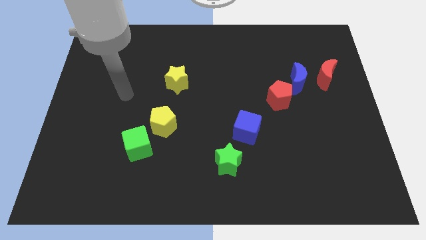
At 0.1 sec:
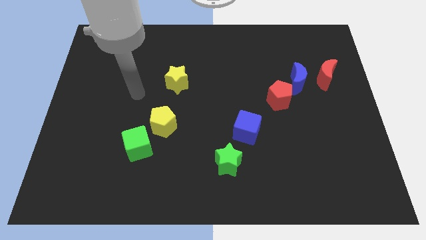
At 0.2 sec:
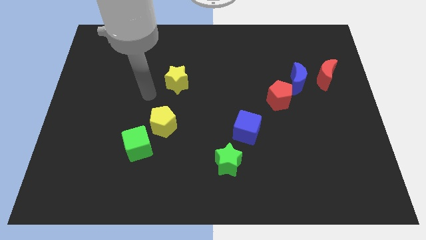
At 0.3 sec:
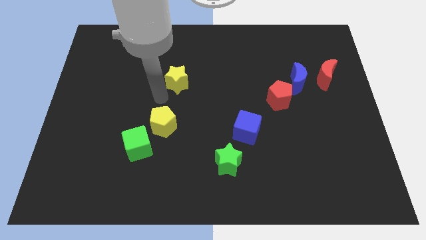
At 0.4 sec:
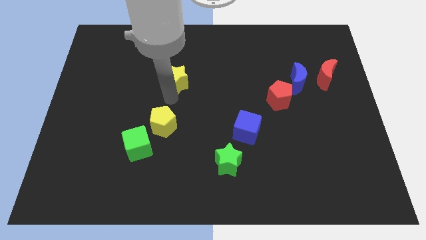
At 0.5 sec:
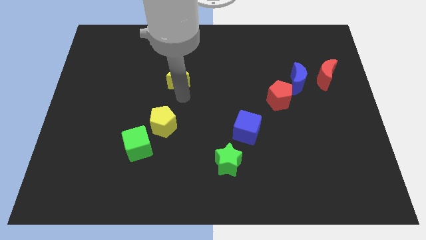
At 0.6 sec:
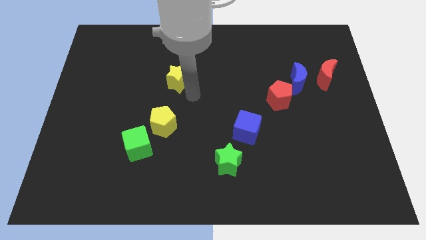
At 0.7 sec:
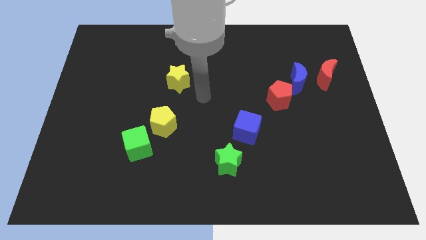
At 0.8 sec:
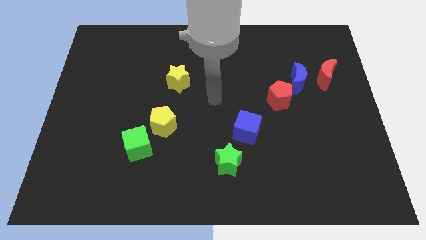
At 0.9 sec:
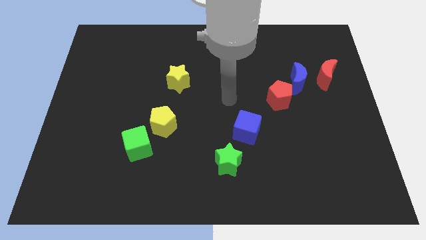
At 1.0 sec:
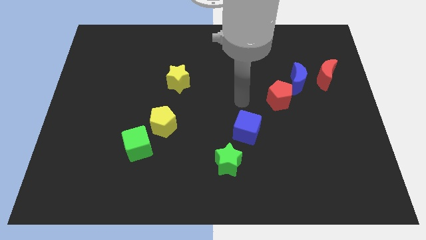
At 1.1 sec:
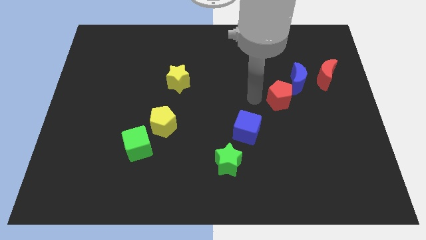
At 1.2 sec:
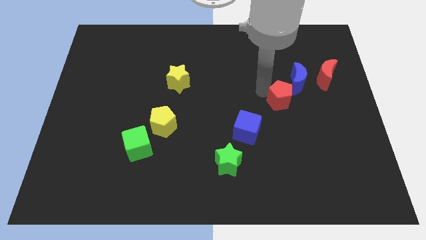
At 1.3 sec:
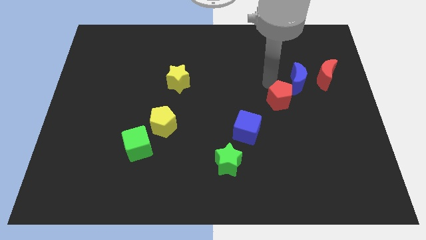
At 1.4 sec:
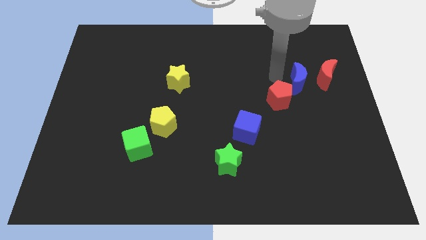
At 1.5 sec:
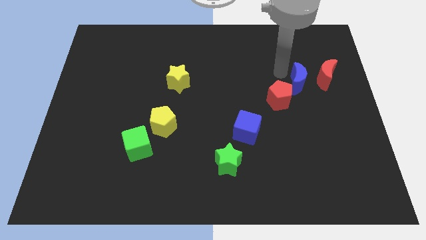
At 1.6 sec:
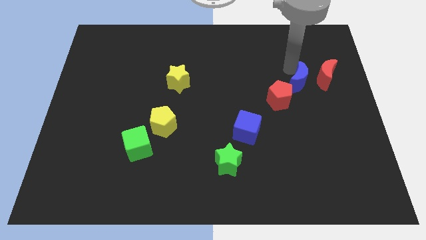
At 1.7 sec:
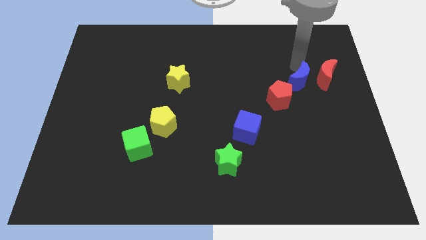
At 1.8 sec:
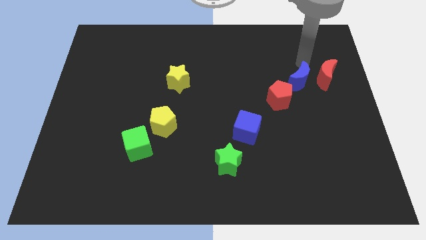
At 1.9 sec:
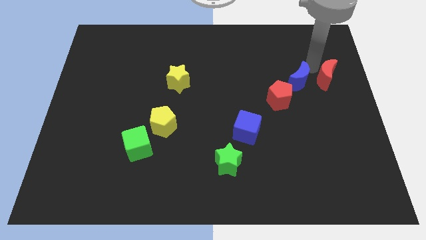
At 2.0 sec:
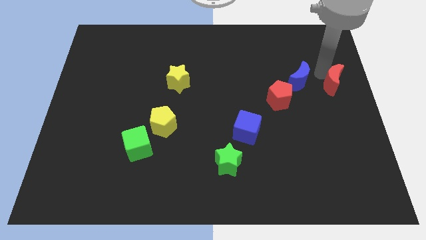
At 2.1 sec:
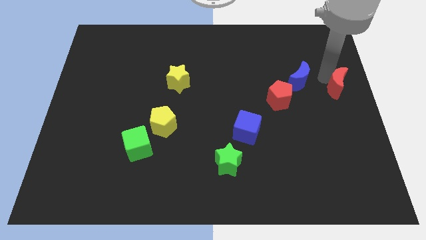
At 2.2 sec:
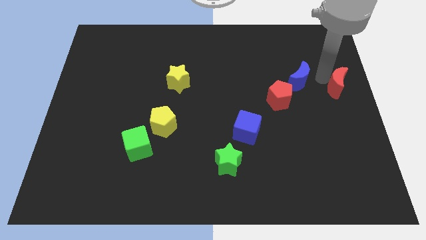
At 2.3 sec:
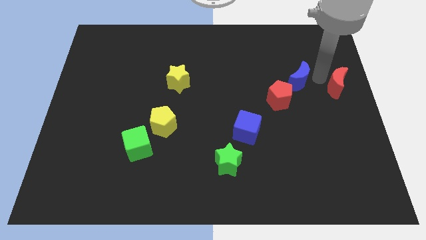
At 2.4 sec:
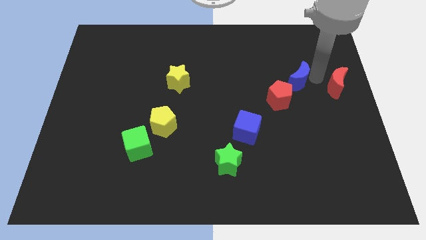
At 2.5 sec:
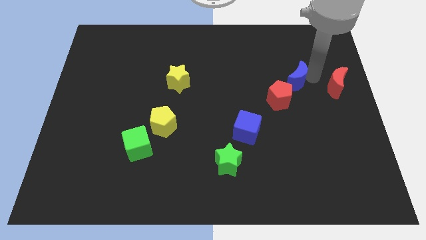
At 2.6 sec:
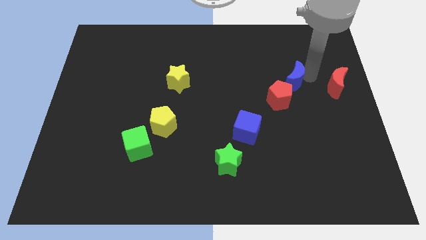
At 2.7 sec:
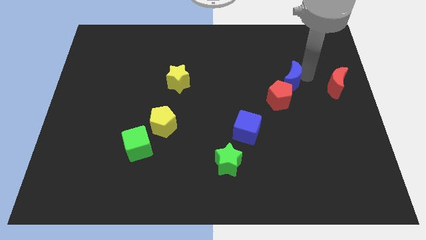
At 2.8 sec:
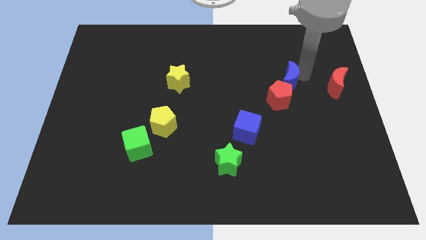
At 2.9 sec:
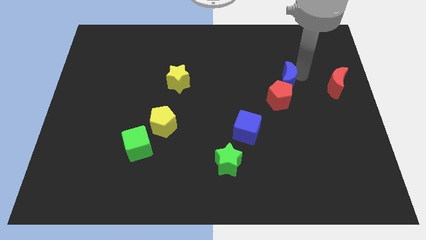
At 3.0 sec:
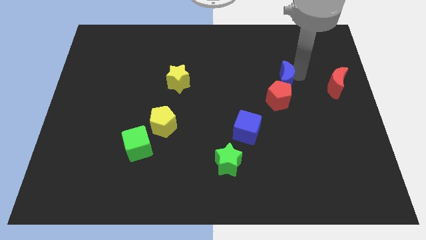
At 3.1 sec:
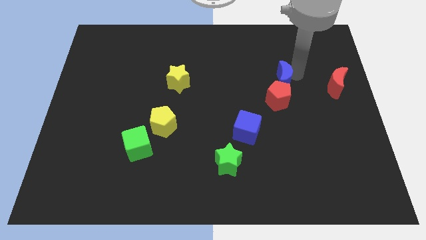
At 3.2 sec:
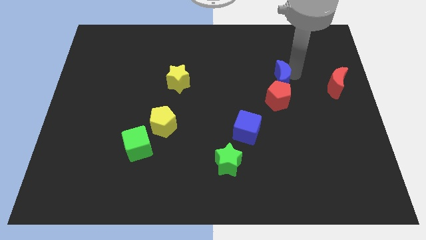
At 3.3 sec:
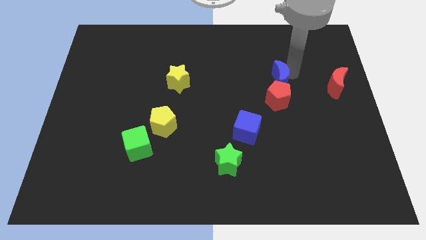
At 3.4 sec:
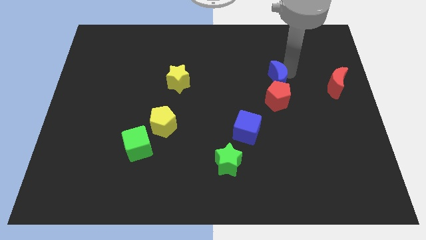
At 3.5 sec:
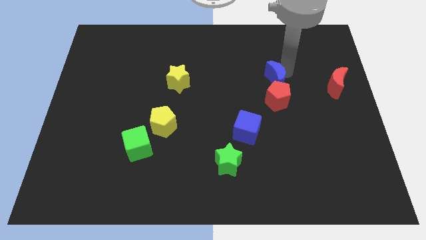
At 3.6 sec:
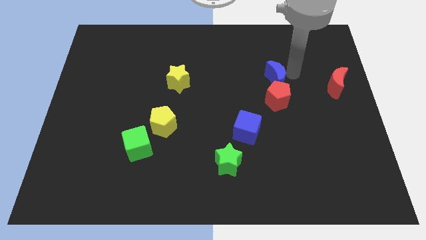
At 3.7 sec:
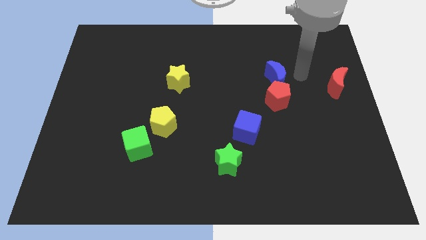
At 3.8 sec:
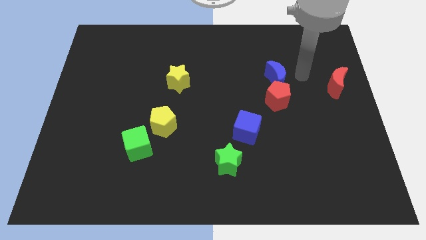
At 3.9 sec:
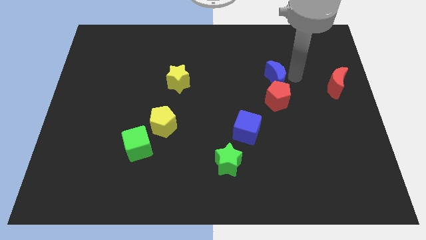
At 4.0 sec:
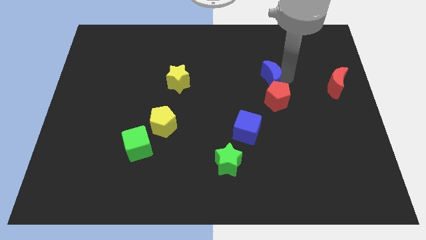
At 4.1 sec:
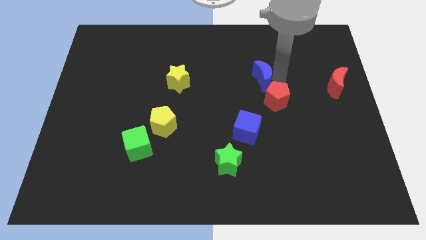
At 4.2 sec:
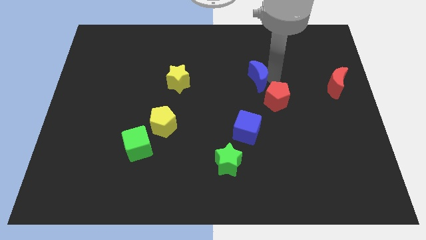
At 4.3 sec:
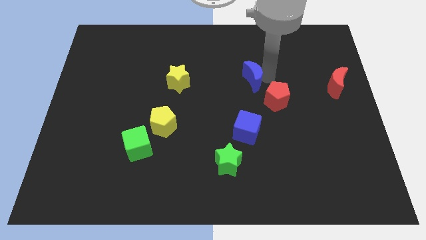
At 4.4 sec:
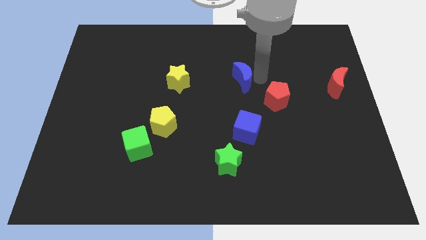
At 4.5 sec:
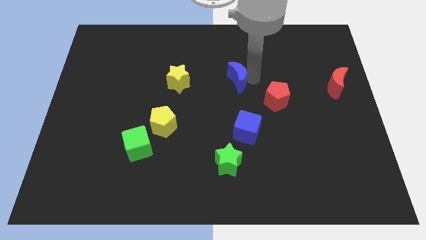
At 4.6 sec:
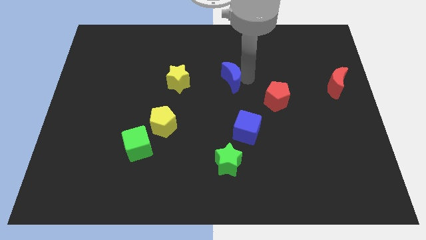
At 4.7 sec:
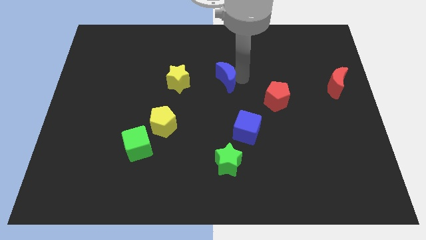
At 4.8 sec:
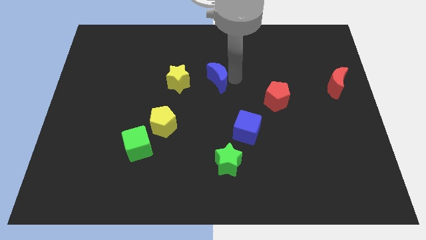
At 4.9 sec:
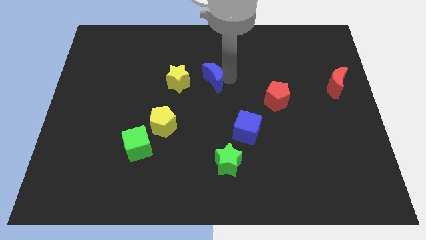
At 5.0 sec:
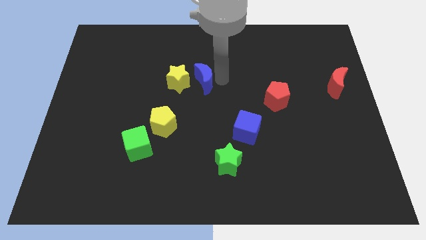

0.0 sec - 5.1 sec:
push the blue moon towards the yellow star

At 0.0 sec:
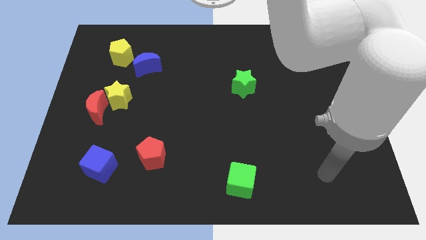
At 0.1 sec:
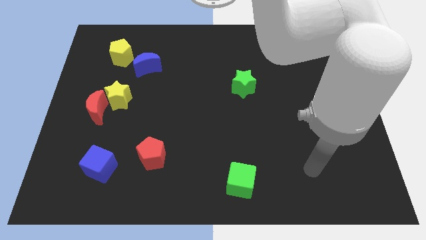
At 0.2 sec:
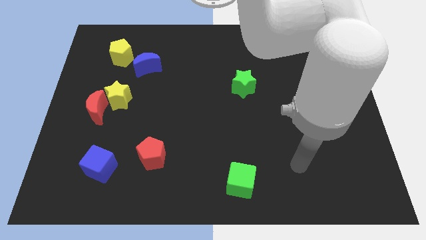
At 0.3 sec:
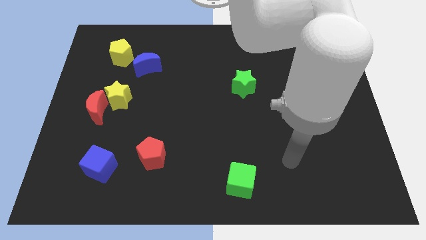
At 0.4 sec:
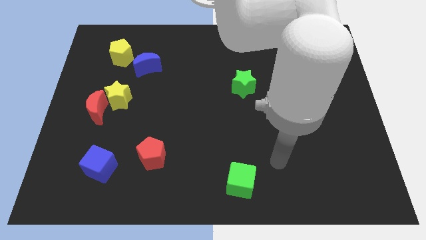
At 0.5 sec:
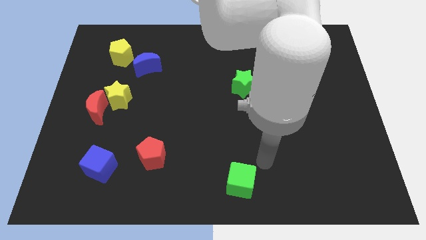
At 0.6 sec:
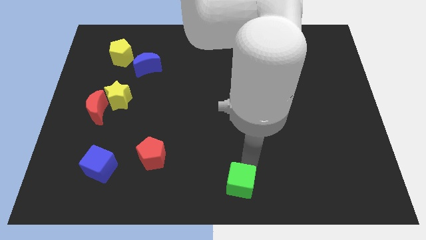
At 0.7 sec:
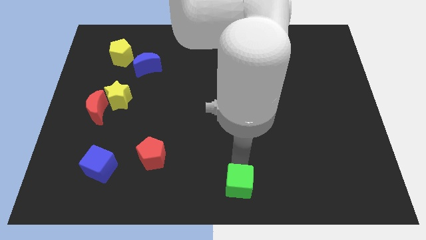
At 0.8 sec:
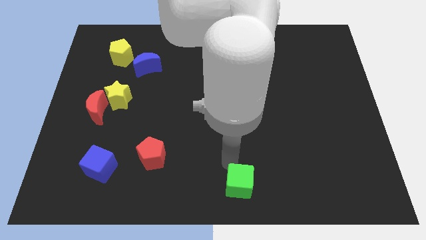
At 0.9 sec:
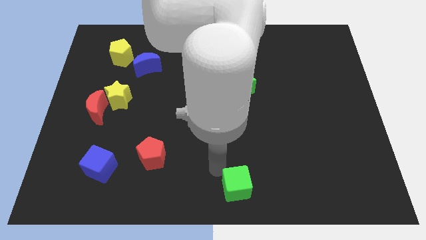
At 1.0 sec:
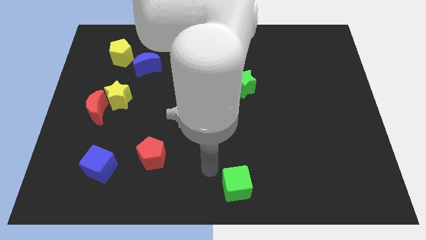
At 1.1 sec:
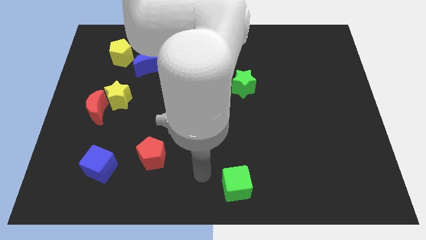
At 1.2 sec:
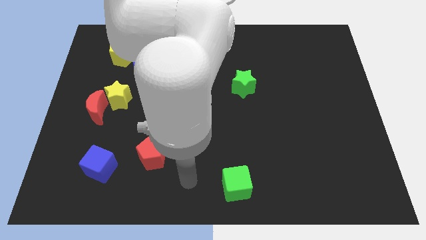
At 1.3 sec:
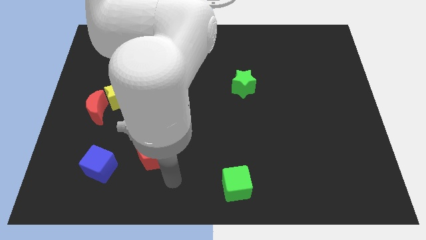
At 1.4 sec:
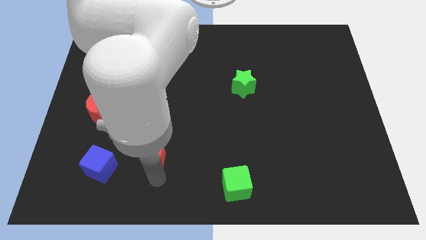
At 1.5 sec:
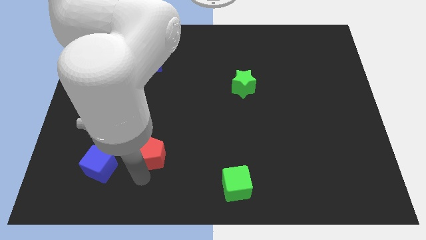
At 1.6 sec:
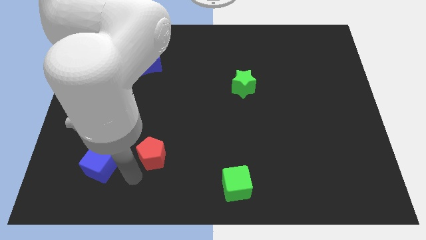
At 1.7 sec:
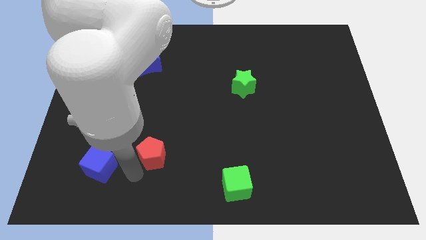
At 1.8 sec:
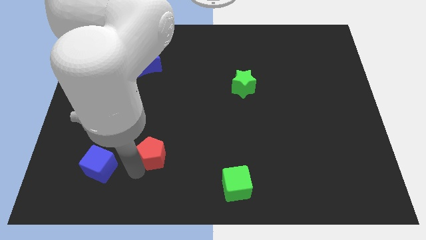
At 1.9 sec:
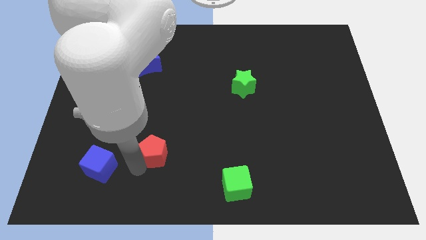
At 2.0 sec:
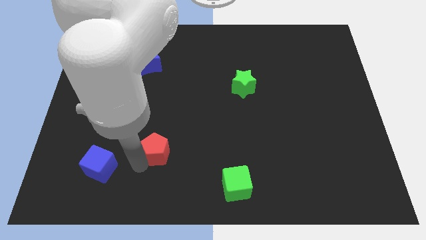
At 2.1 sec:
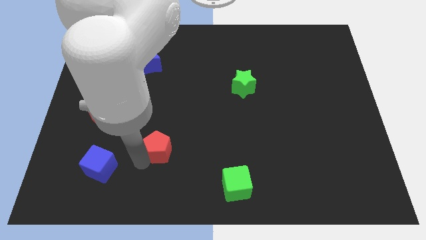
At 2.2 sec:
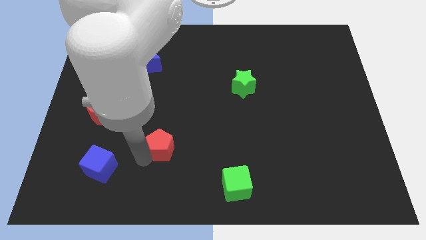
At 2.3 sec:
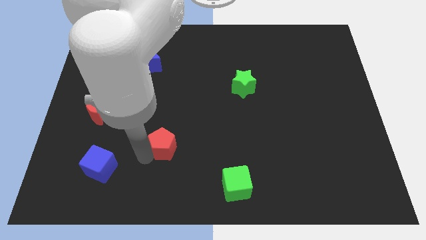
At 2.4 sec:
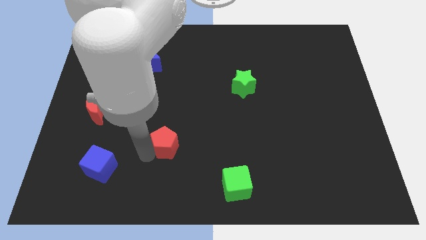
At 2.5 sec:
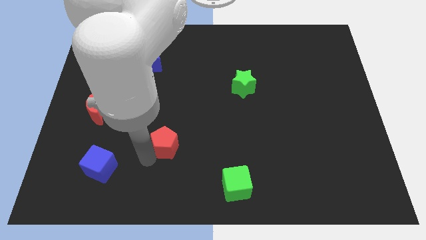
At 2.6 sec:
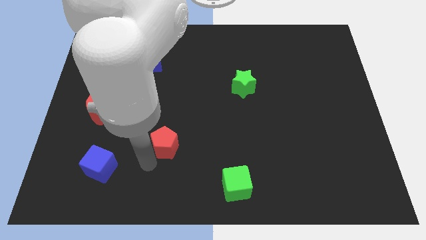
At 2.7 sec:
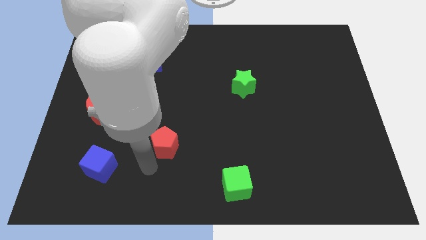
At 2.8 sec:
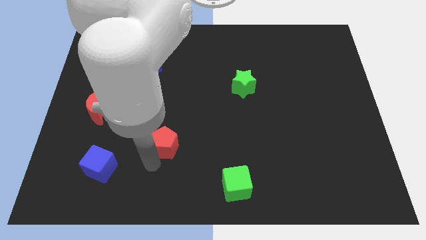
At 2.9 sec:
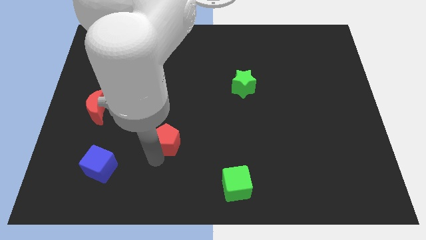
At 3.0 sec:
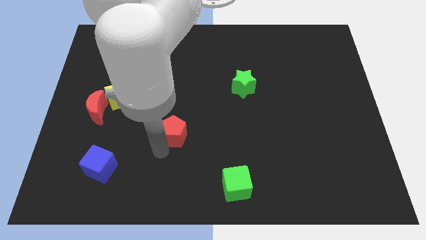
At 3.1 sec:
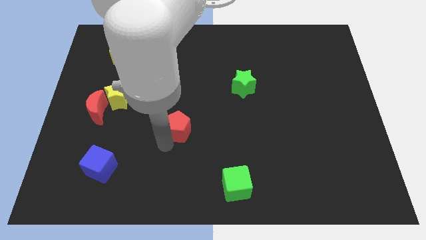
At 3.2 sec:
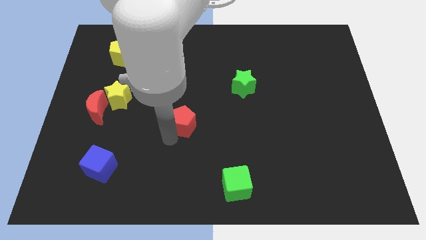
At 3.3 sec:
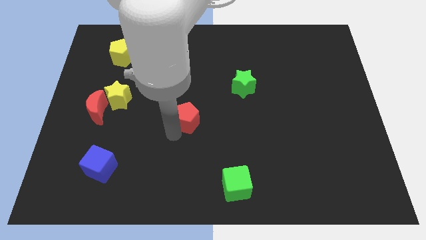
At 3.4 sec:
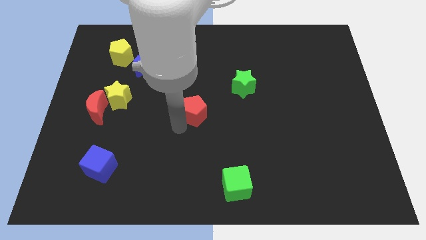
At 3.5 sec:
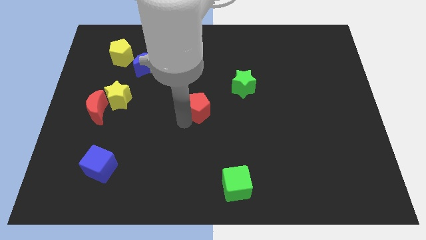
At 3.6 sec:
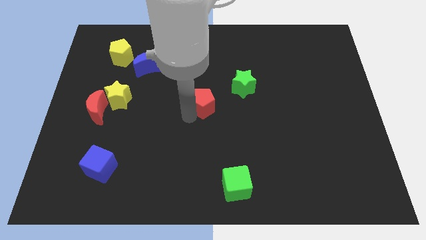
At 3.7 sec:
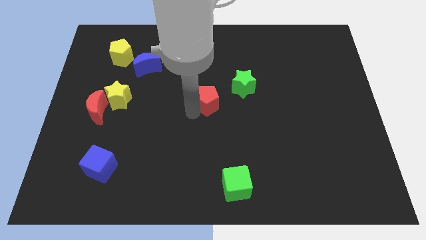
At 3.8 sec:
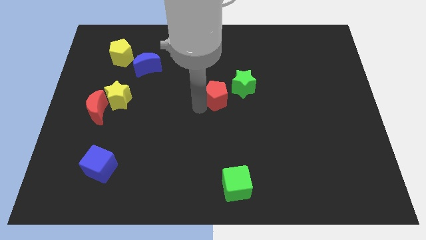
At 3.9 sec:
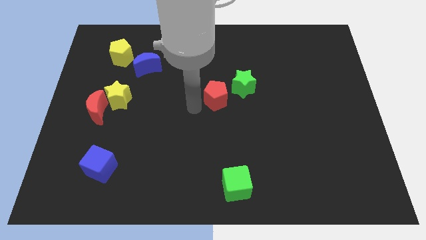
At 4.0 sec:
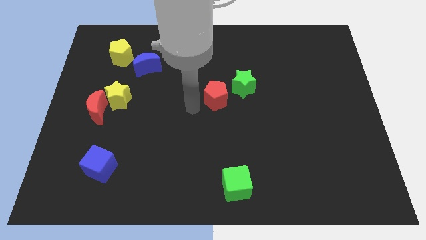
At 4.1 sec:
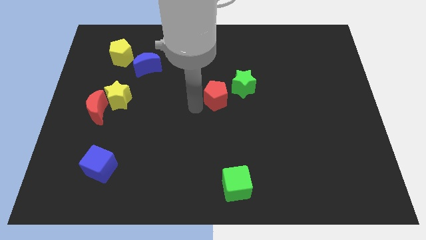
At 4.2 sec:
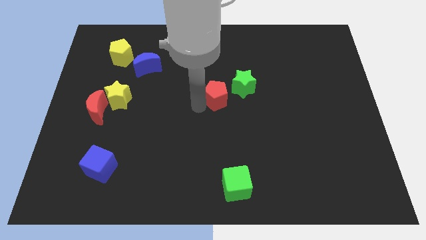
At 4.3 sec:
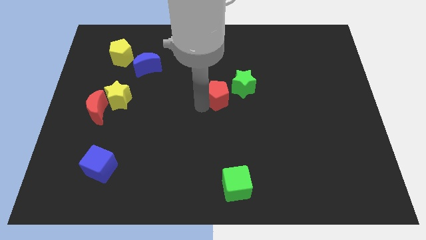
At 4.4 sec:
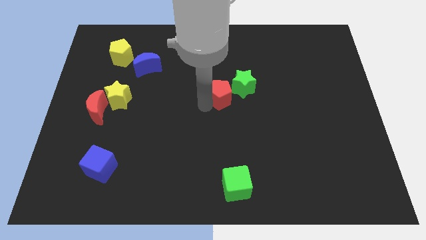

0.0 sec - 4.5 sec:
slide the red pentagon next to the green star
